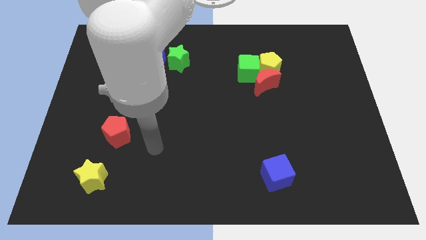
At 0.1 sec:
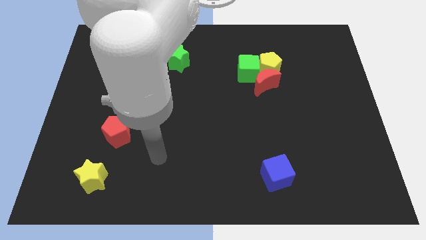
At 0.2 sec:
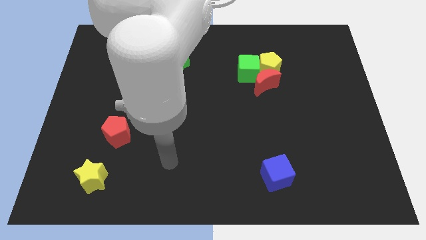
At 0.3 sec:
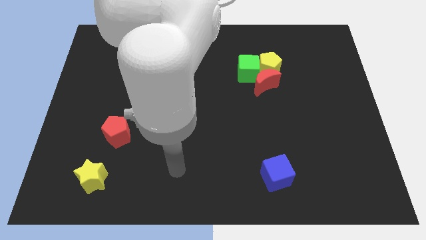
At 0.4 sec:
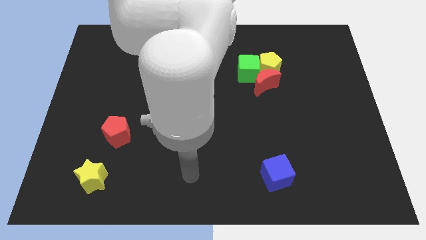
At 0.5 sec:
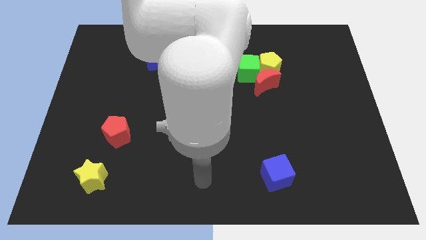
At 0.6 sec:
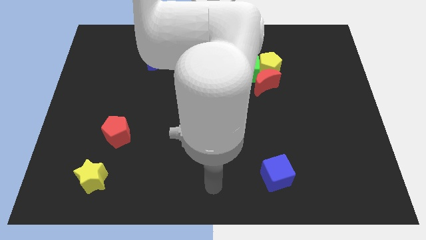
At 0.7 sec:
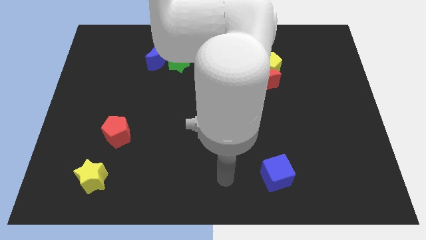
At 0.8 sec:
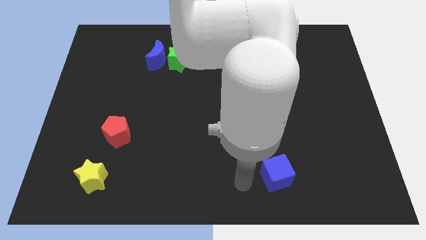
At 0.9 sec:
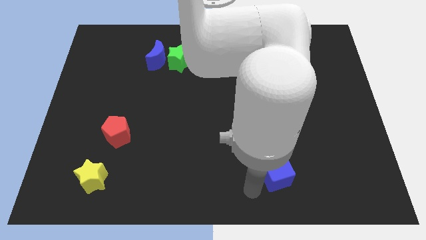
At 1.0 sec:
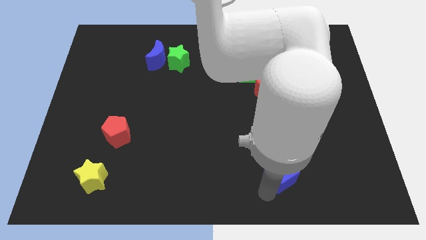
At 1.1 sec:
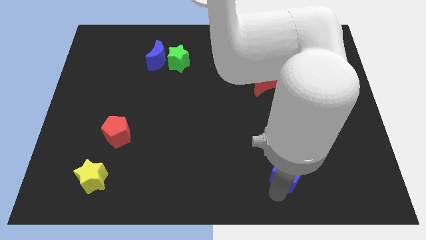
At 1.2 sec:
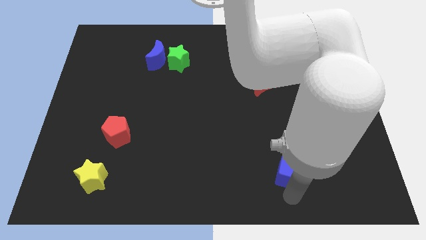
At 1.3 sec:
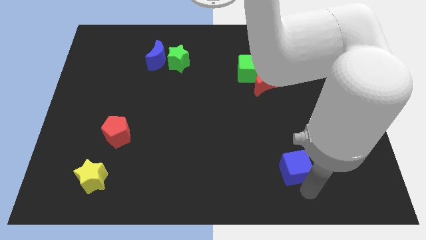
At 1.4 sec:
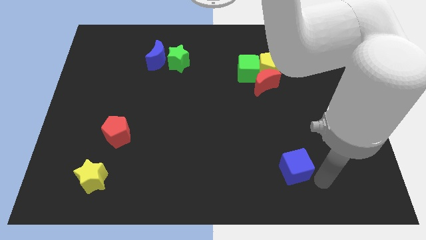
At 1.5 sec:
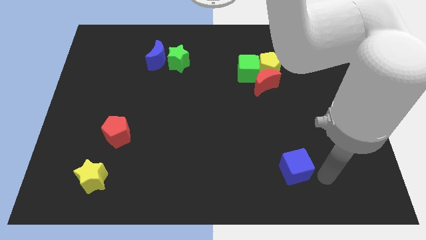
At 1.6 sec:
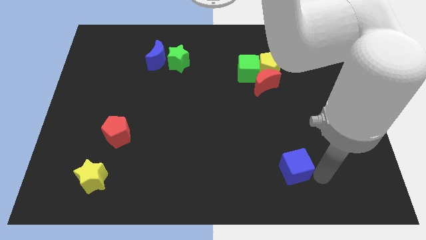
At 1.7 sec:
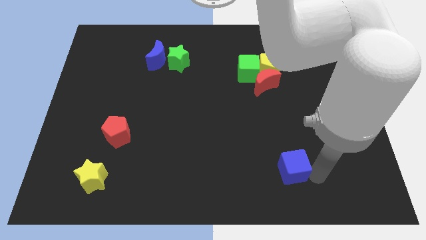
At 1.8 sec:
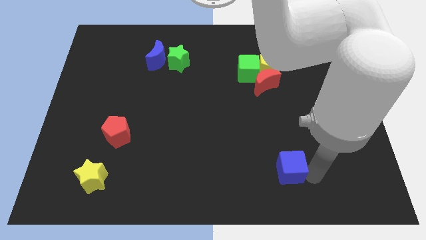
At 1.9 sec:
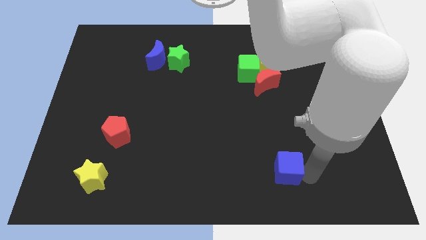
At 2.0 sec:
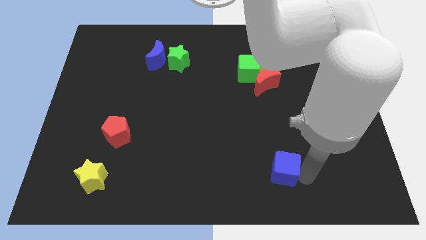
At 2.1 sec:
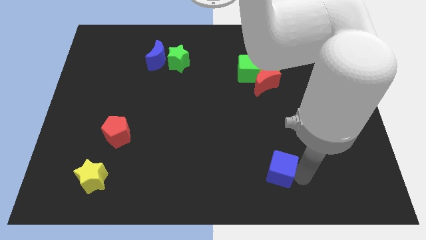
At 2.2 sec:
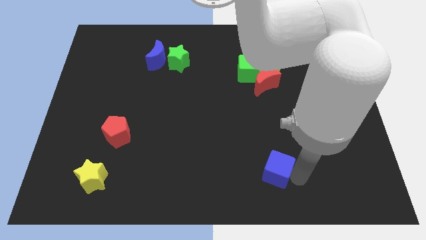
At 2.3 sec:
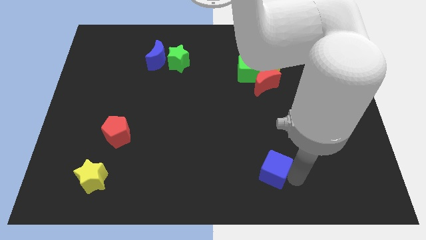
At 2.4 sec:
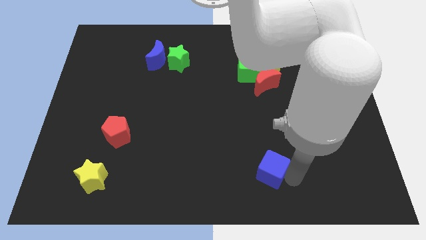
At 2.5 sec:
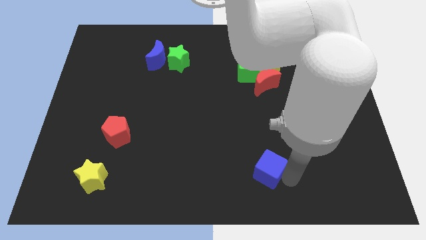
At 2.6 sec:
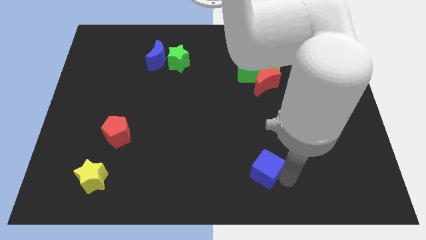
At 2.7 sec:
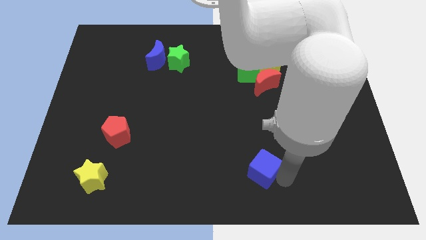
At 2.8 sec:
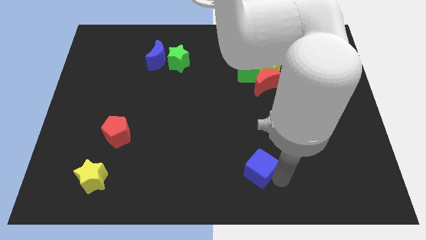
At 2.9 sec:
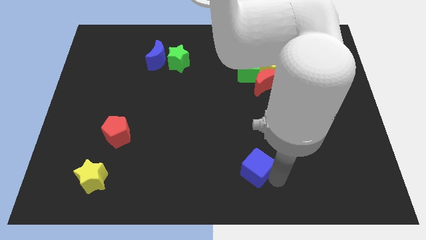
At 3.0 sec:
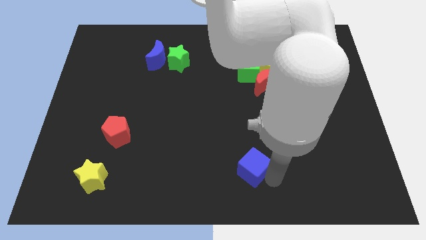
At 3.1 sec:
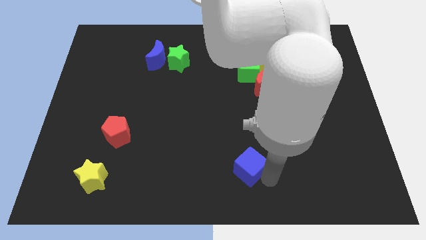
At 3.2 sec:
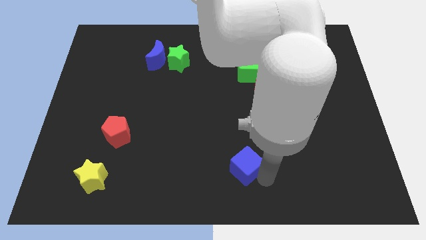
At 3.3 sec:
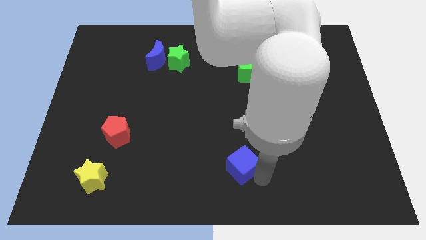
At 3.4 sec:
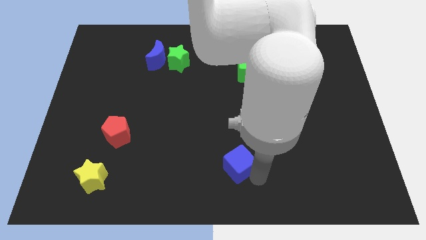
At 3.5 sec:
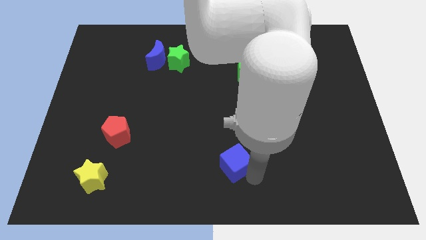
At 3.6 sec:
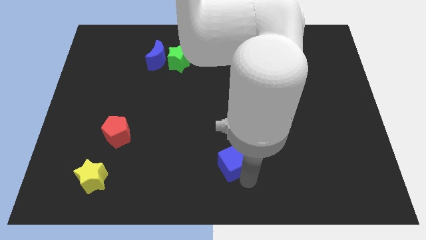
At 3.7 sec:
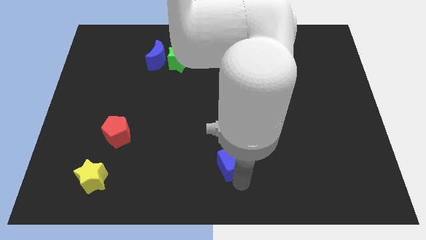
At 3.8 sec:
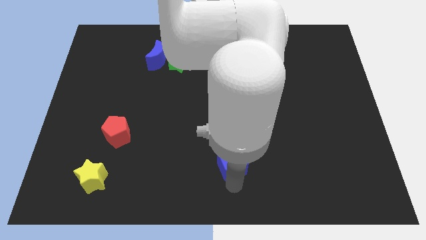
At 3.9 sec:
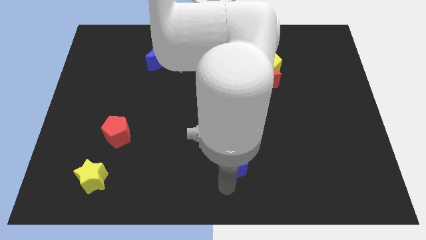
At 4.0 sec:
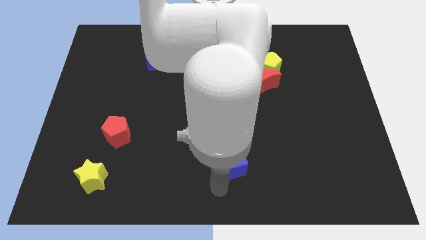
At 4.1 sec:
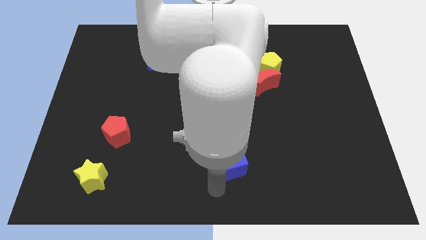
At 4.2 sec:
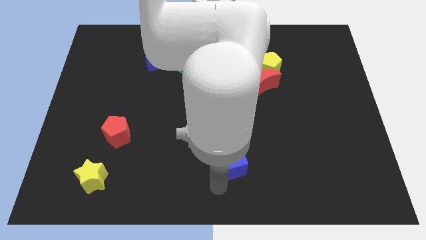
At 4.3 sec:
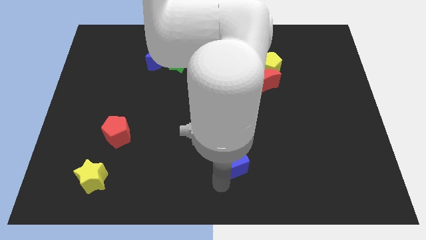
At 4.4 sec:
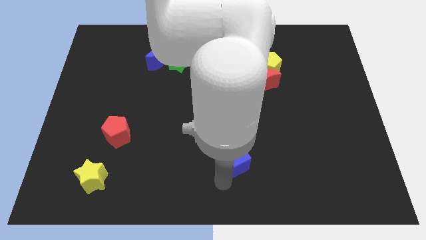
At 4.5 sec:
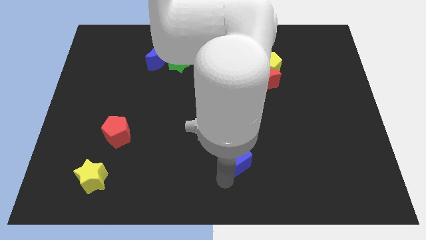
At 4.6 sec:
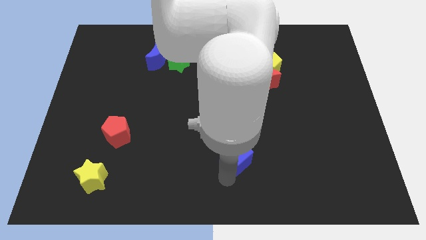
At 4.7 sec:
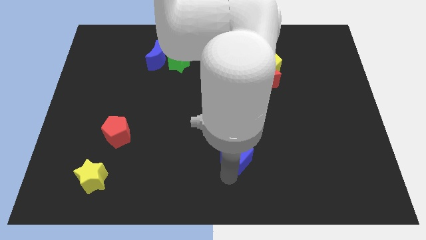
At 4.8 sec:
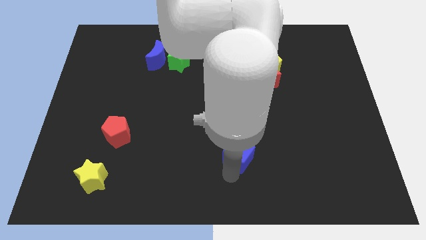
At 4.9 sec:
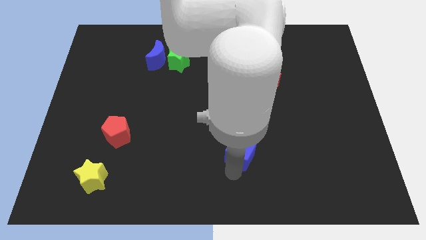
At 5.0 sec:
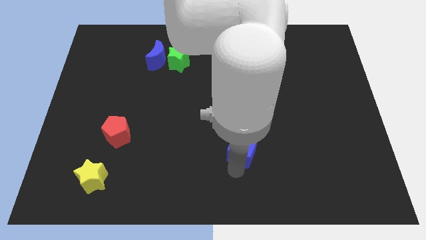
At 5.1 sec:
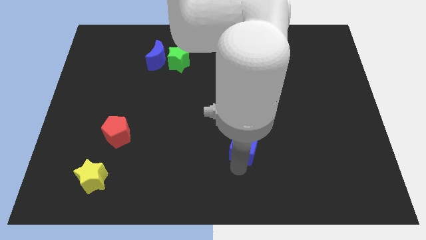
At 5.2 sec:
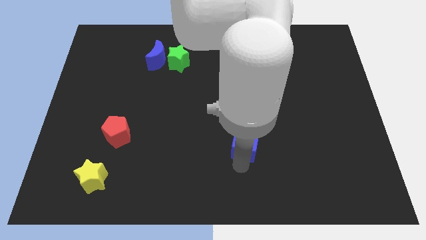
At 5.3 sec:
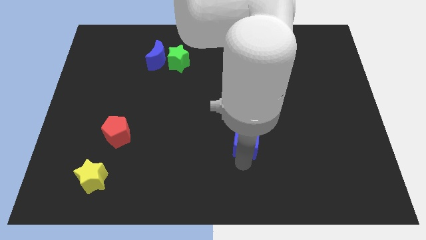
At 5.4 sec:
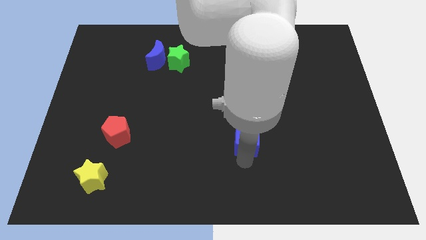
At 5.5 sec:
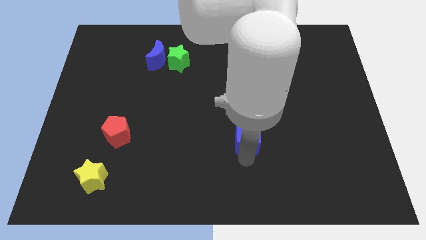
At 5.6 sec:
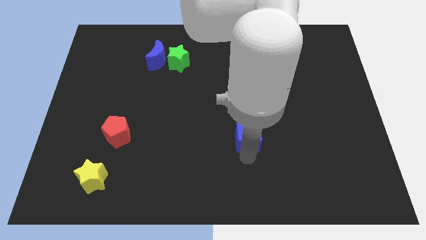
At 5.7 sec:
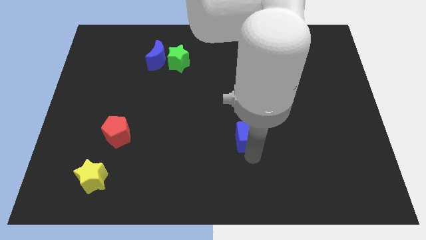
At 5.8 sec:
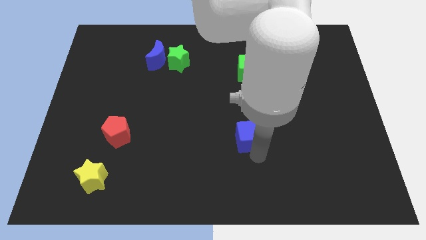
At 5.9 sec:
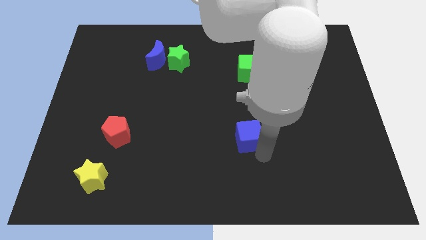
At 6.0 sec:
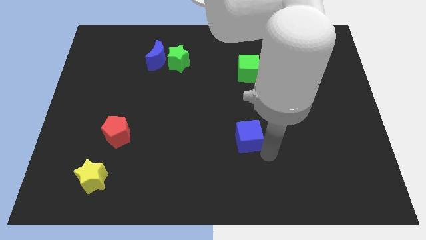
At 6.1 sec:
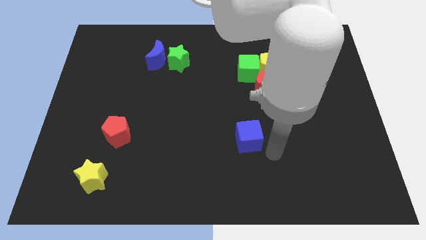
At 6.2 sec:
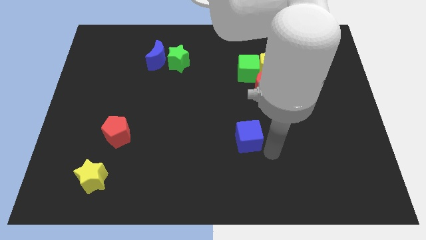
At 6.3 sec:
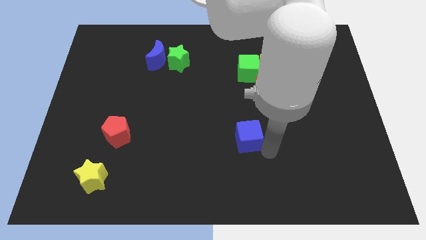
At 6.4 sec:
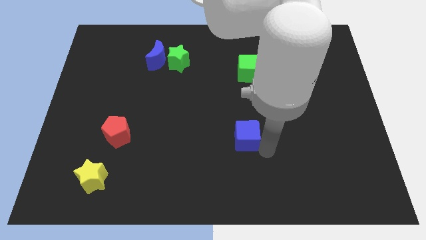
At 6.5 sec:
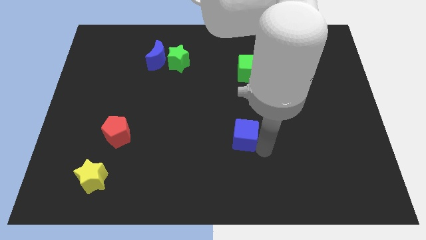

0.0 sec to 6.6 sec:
put the blue cube to the center
